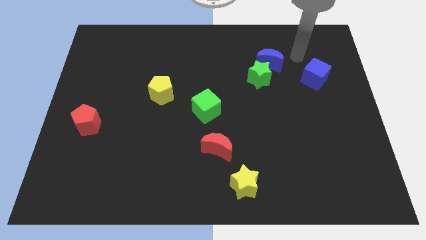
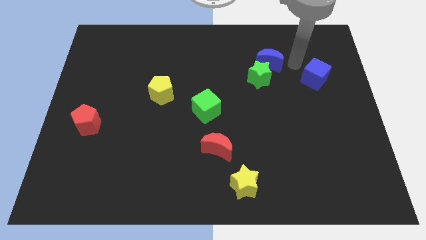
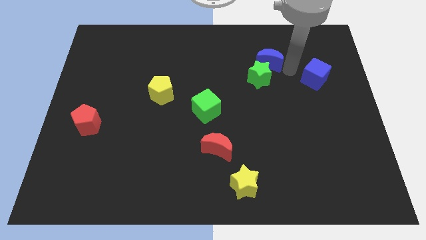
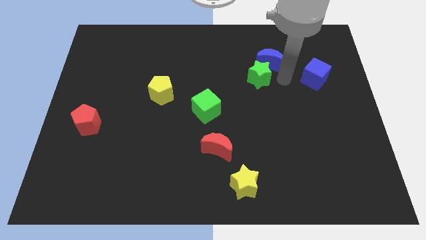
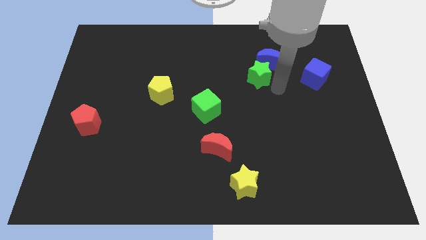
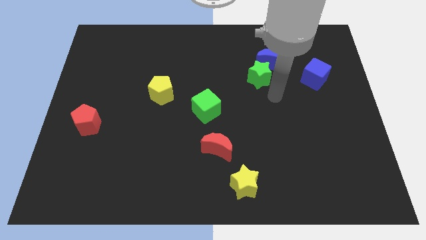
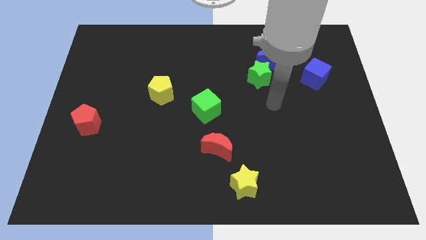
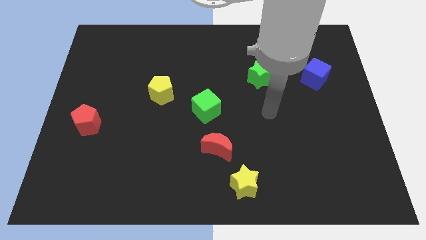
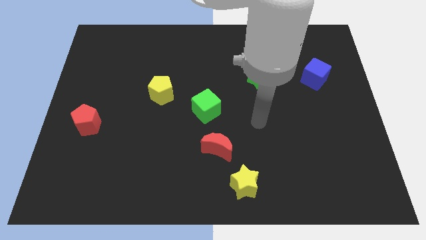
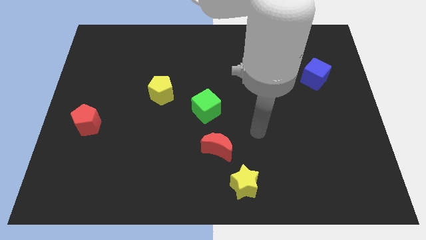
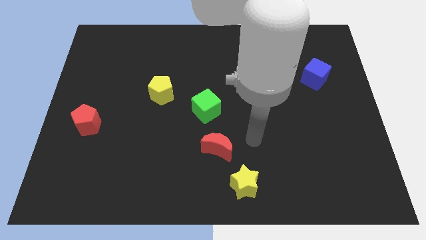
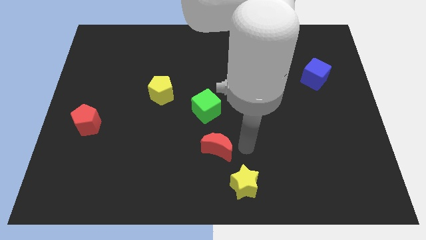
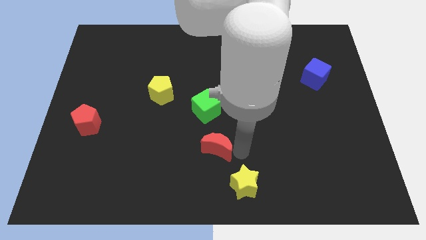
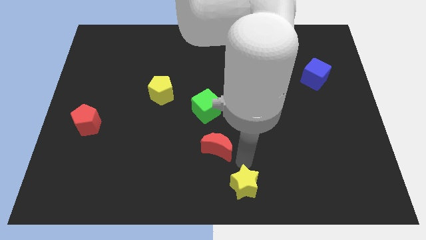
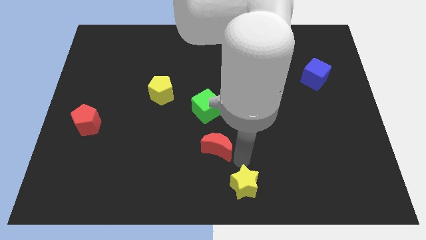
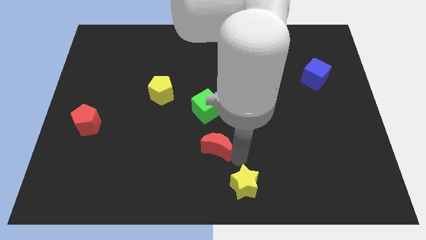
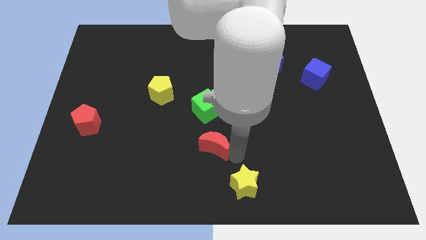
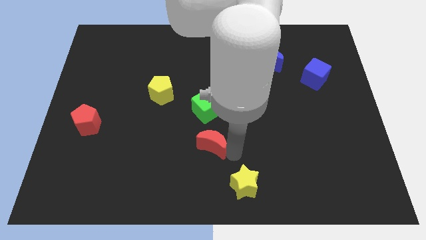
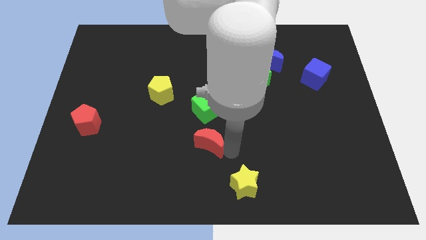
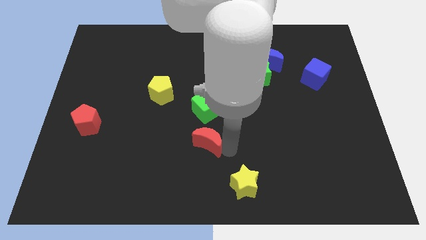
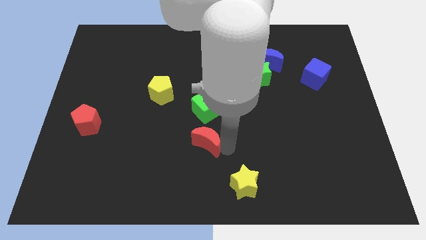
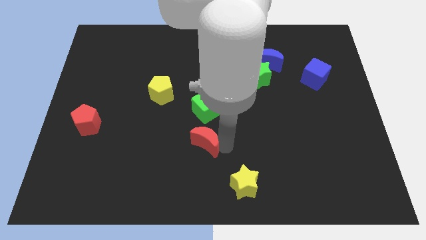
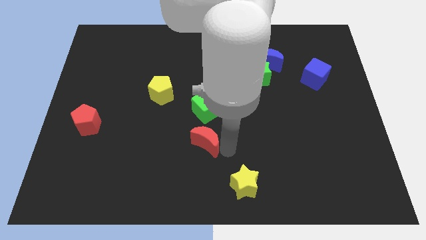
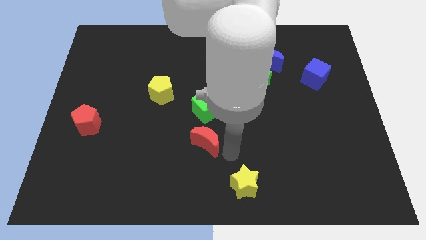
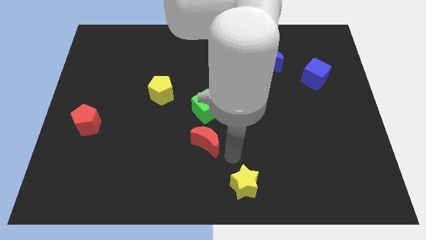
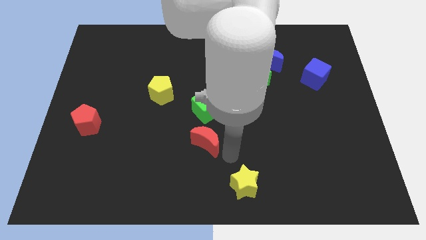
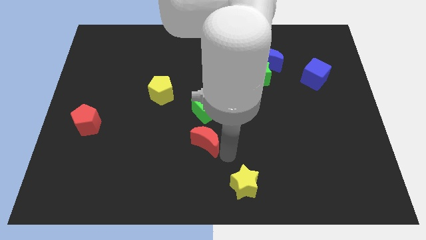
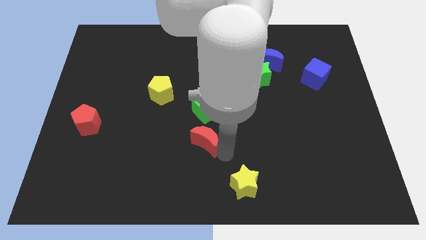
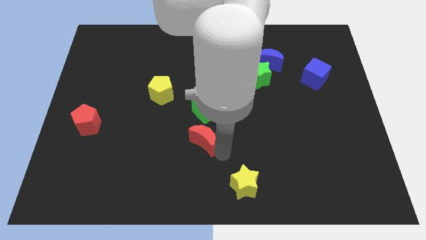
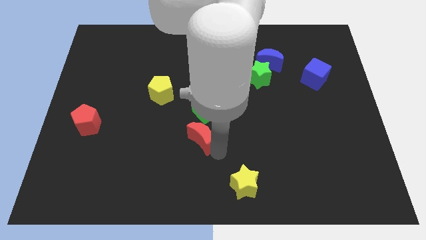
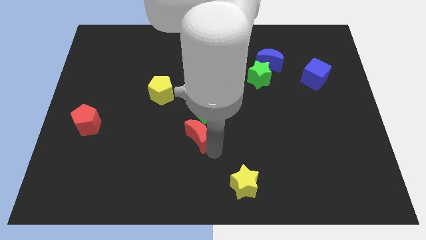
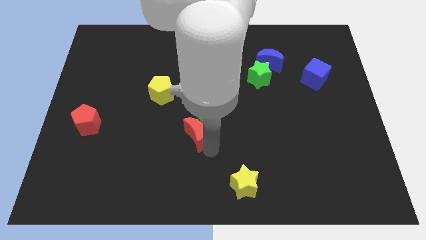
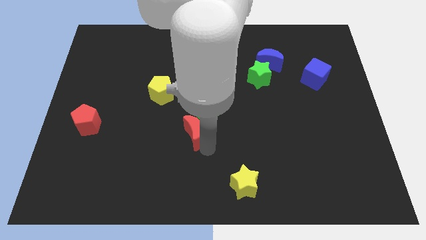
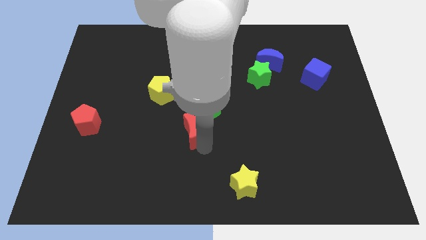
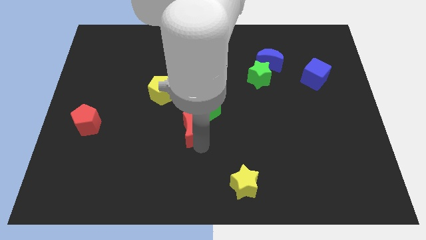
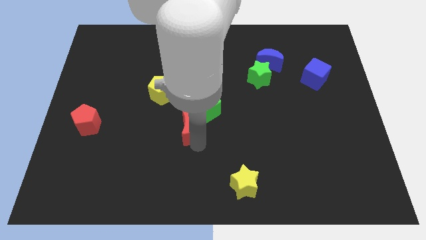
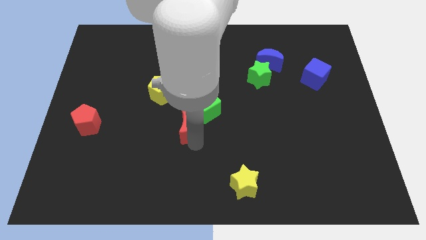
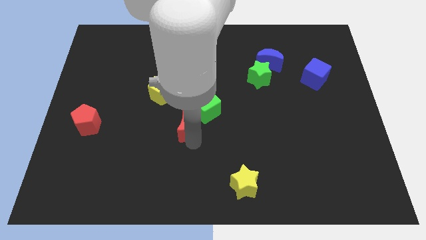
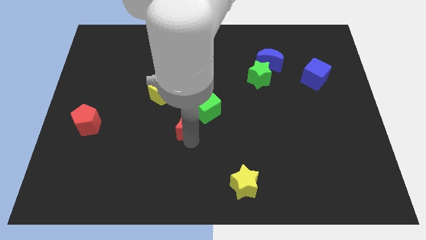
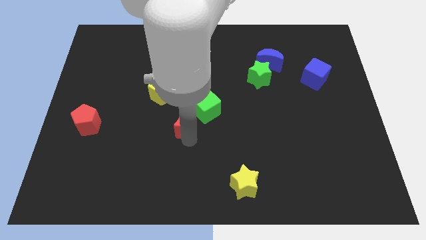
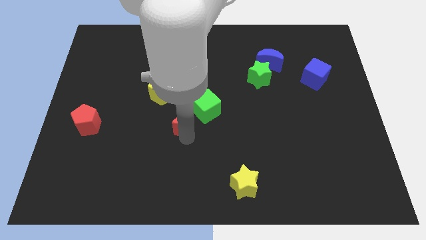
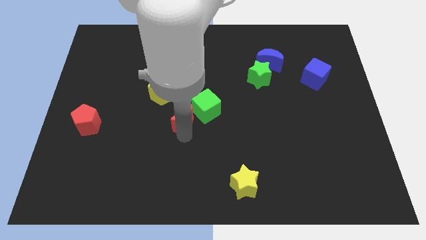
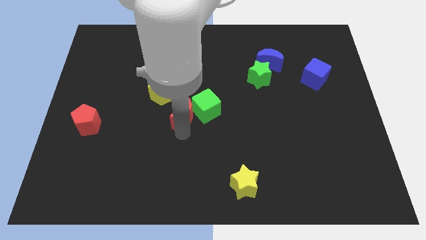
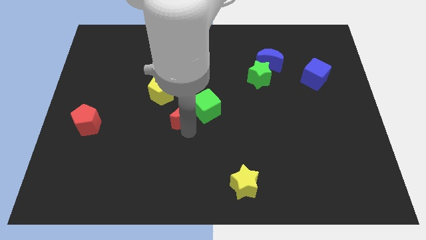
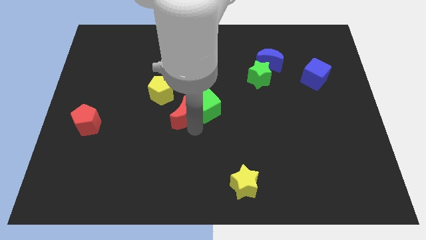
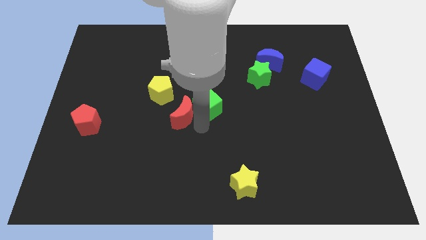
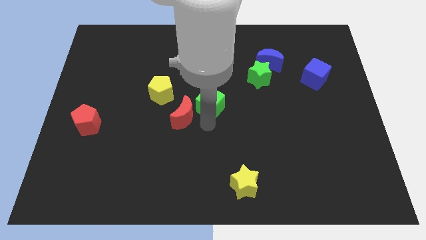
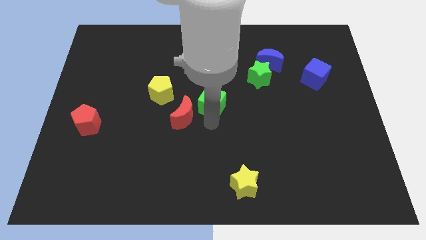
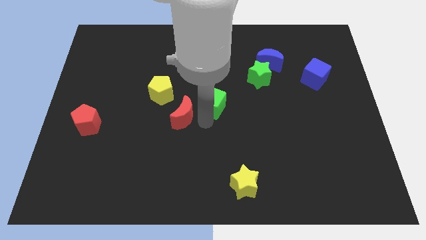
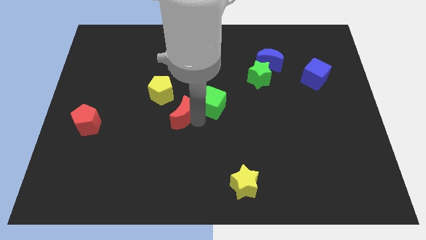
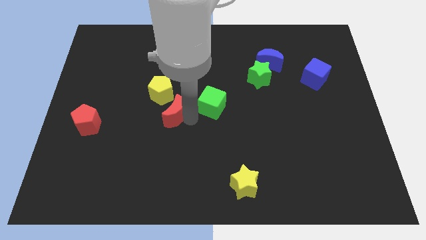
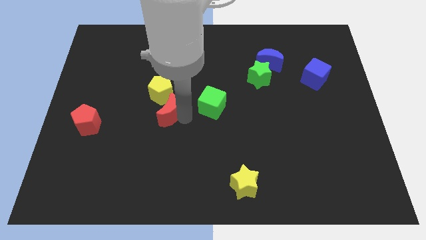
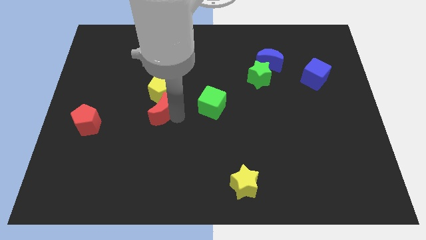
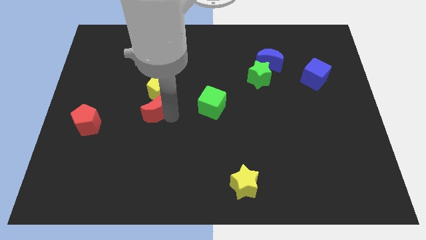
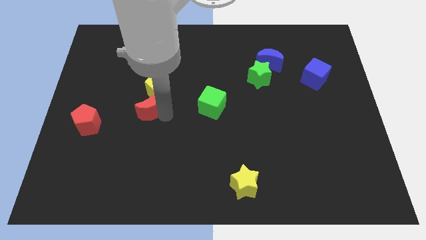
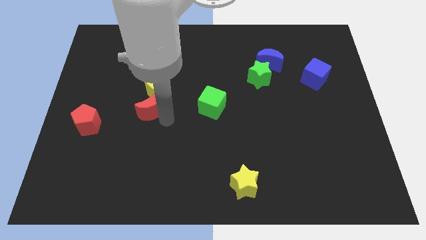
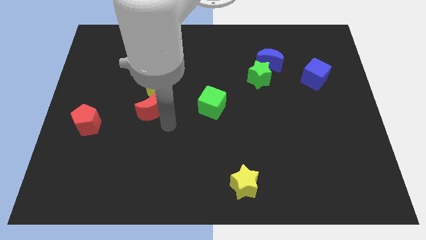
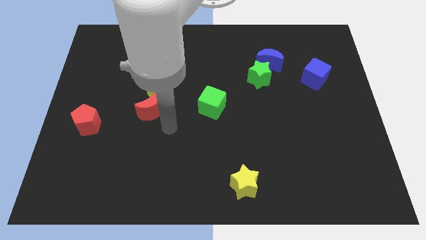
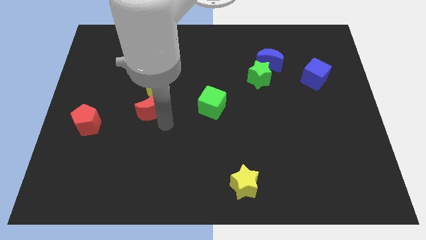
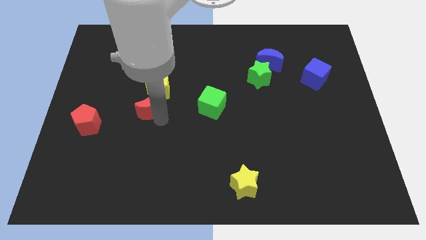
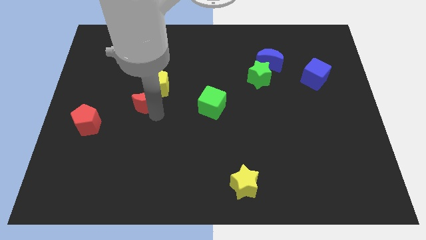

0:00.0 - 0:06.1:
push the red moon up and to the left diagonally

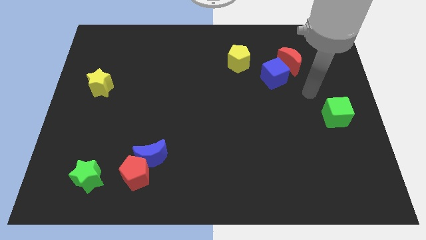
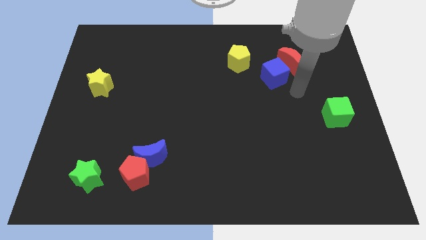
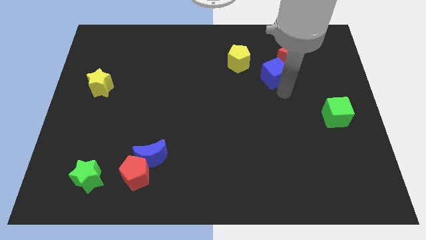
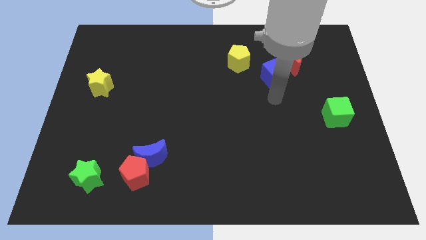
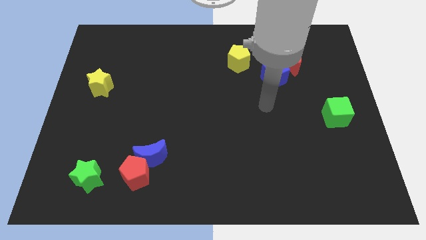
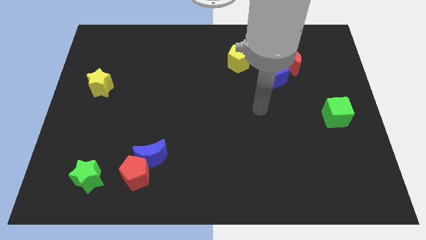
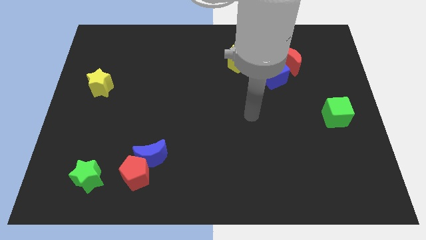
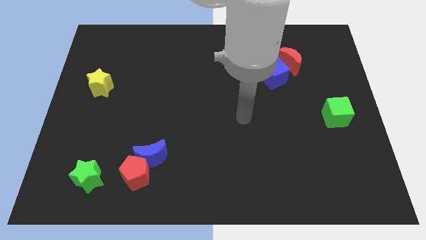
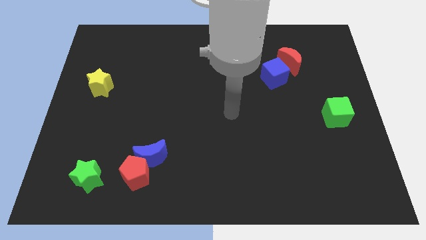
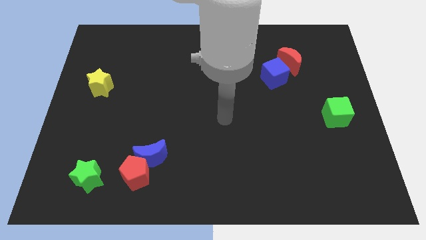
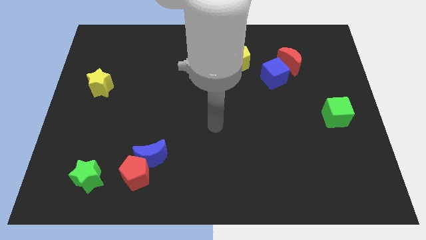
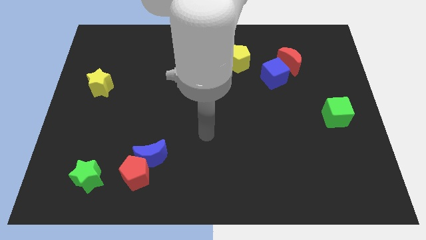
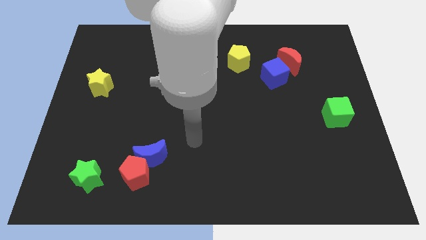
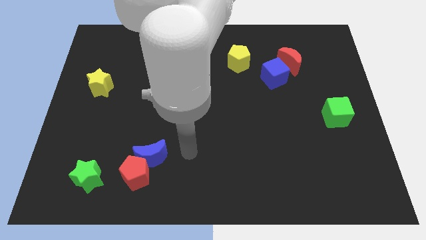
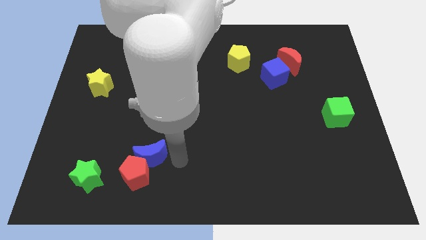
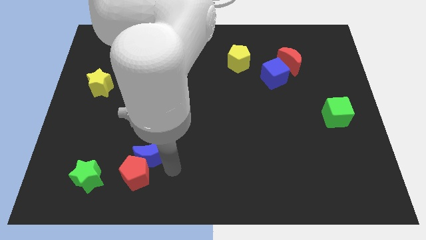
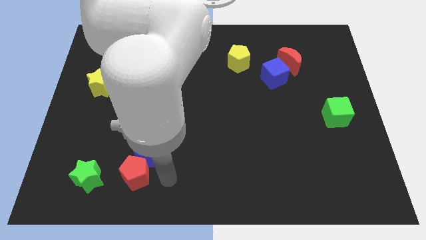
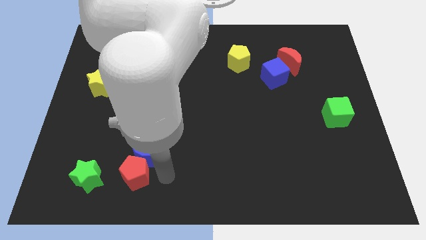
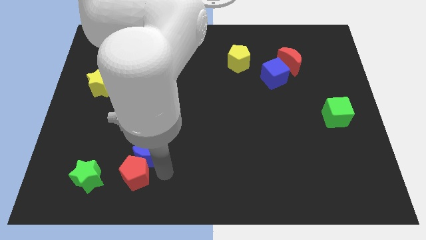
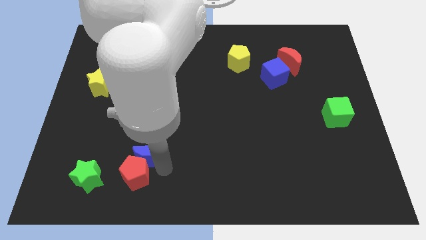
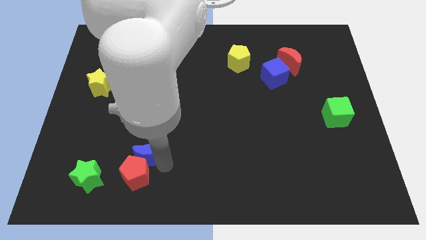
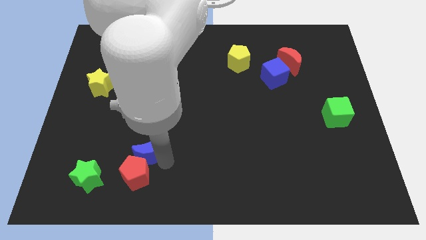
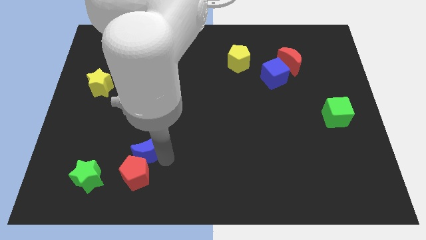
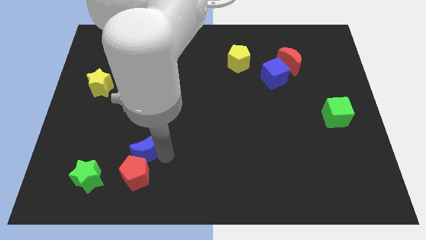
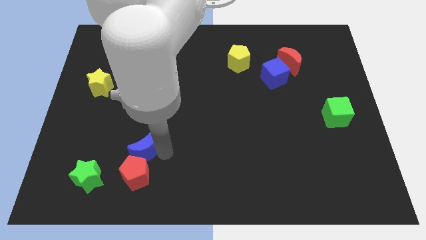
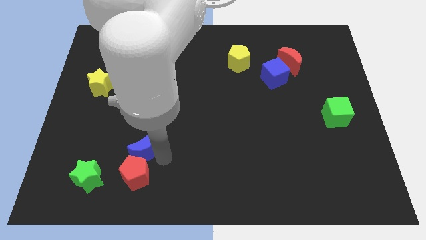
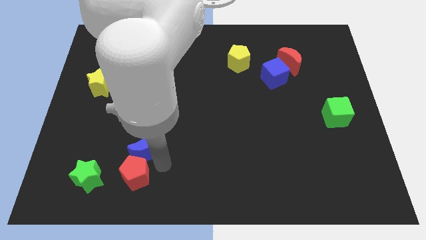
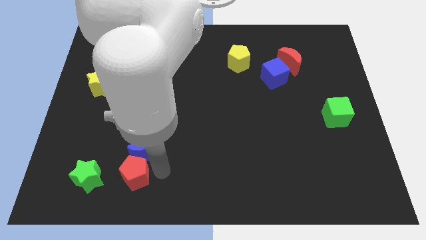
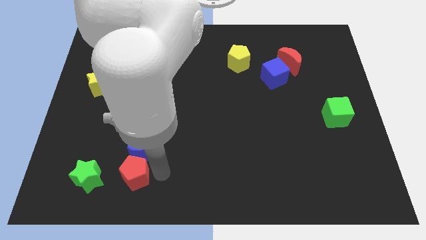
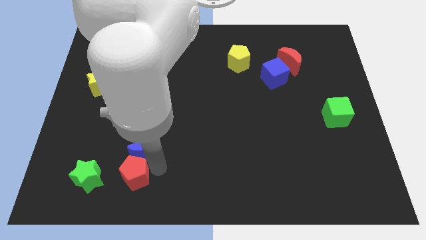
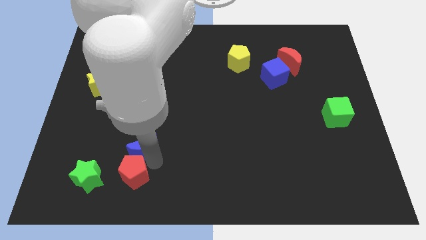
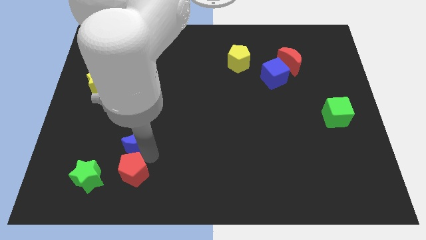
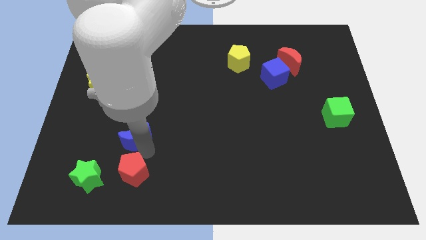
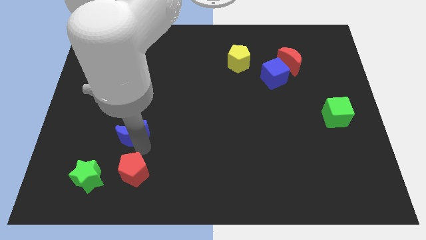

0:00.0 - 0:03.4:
slide the blue moon diagonally upwards and to the left a little
